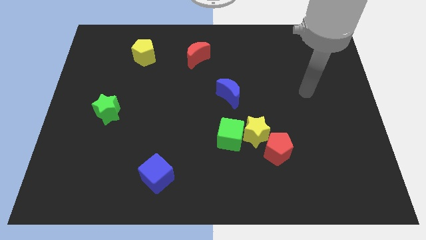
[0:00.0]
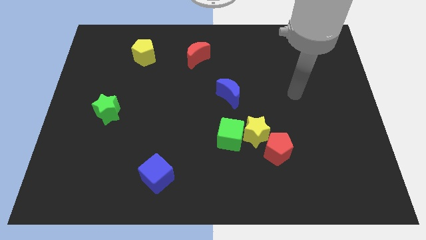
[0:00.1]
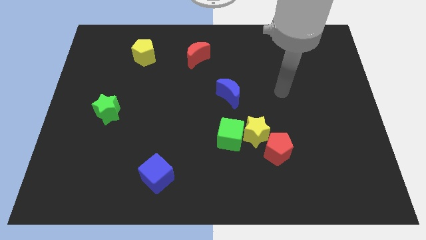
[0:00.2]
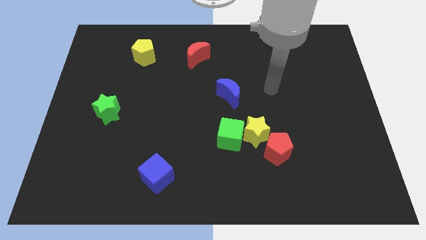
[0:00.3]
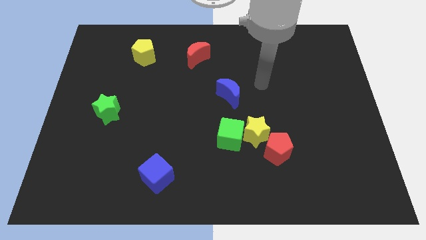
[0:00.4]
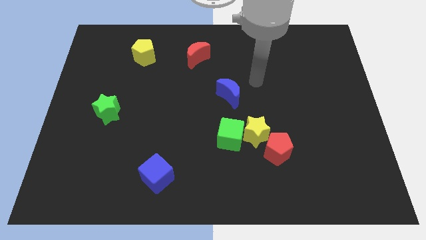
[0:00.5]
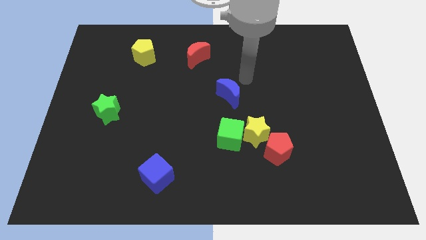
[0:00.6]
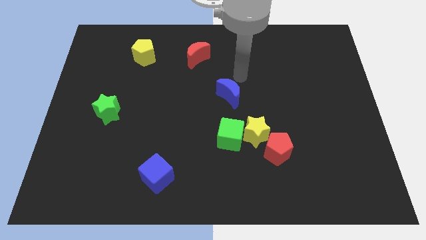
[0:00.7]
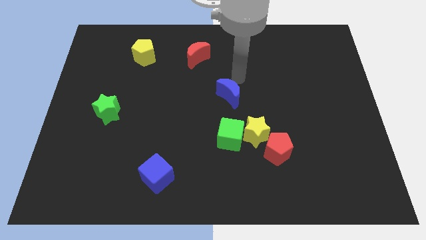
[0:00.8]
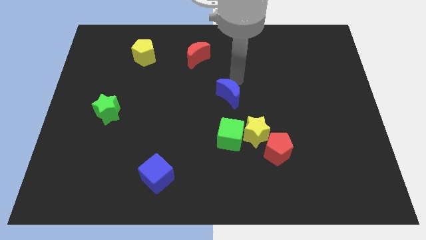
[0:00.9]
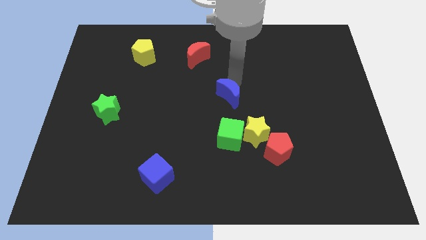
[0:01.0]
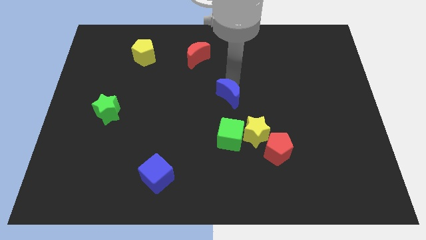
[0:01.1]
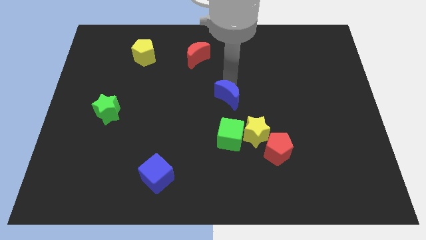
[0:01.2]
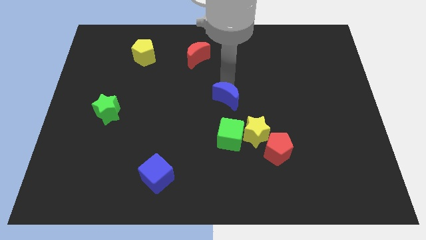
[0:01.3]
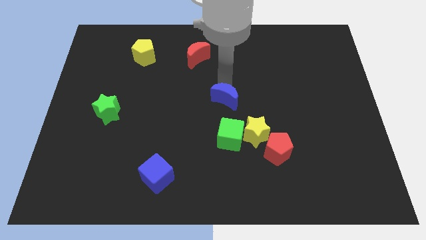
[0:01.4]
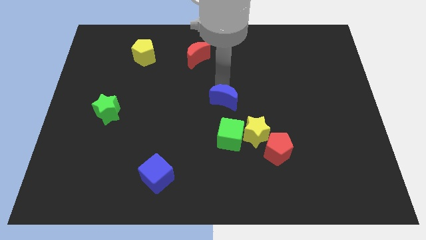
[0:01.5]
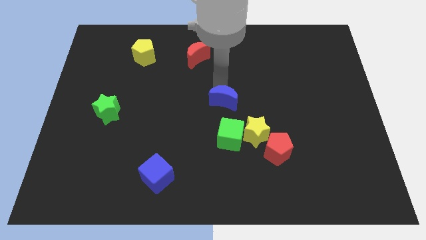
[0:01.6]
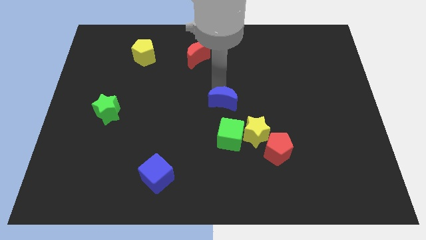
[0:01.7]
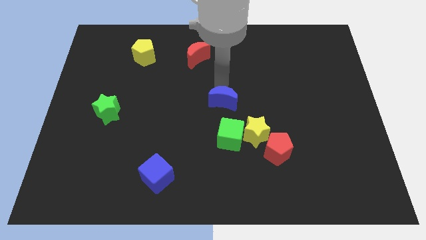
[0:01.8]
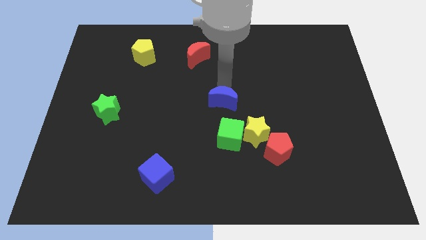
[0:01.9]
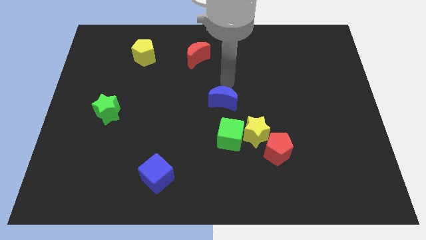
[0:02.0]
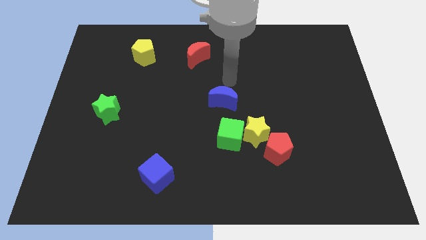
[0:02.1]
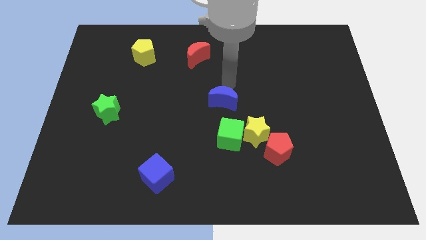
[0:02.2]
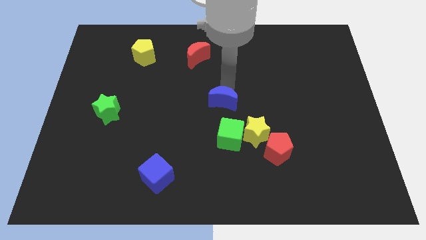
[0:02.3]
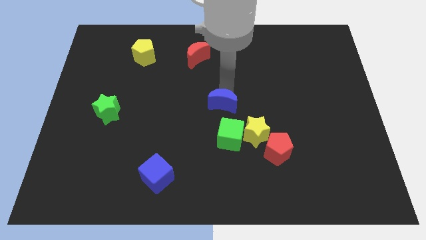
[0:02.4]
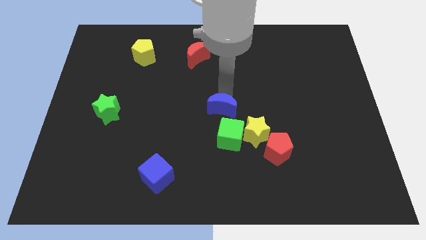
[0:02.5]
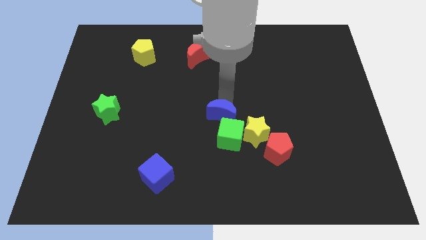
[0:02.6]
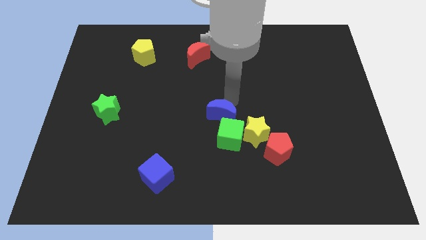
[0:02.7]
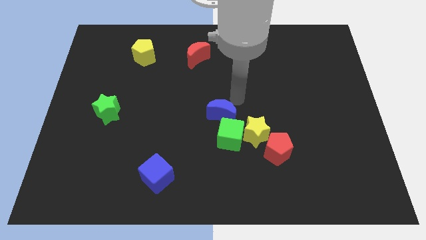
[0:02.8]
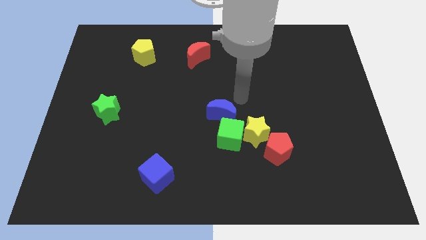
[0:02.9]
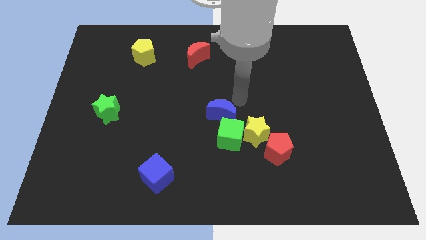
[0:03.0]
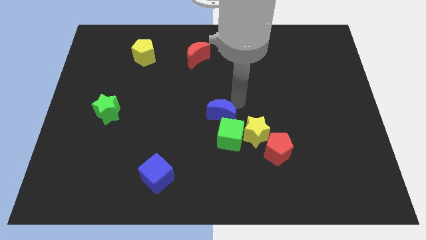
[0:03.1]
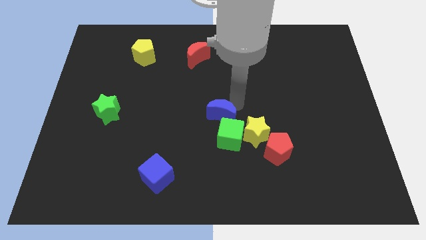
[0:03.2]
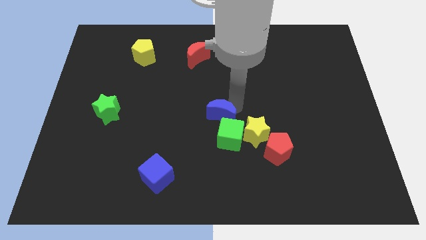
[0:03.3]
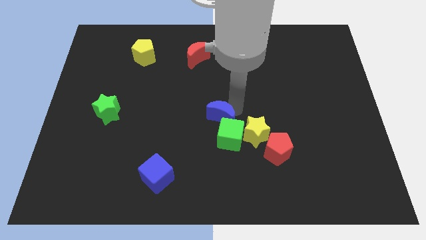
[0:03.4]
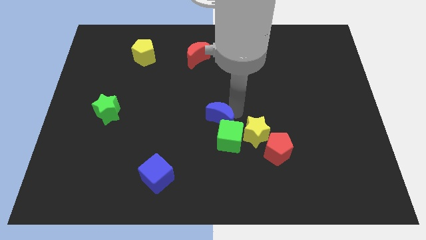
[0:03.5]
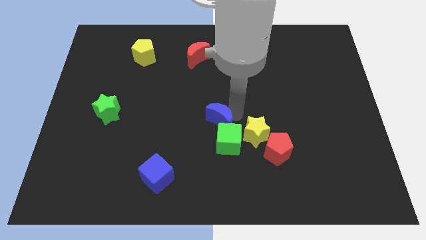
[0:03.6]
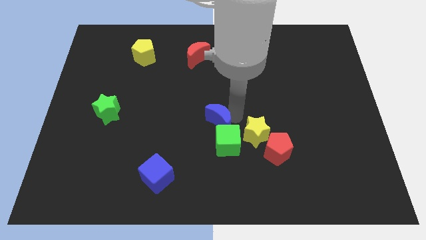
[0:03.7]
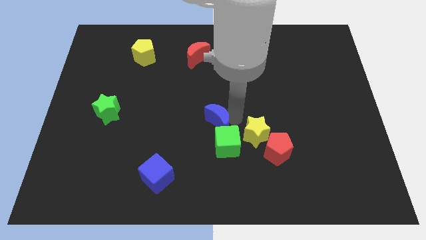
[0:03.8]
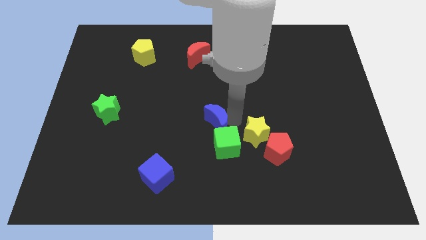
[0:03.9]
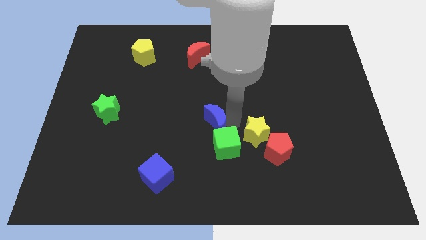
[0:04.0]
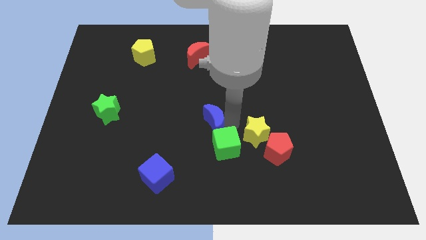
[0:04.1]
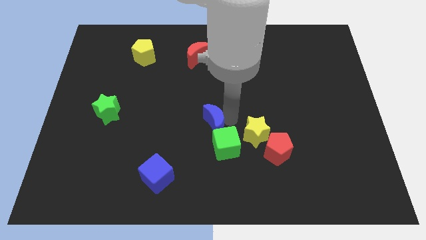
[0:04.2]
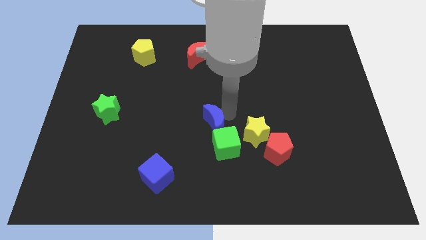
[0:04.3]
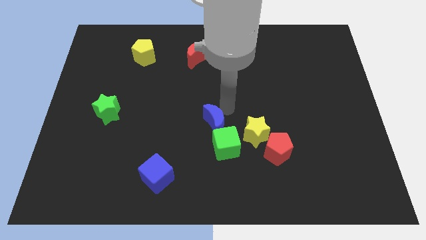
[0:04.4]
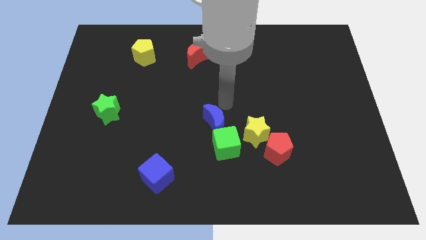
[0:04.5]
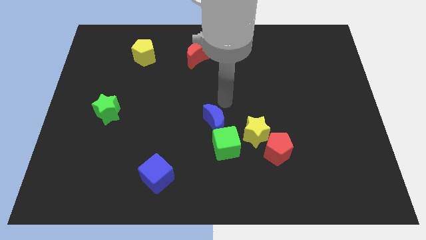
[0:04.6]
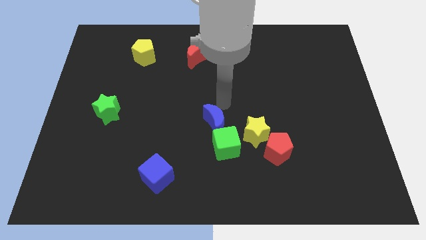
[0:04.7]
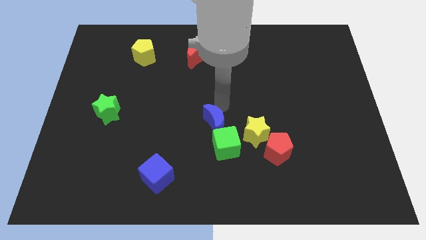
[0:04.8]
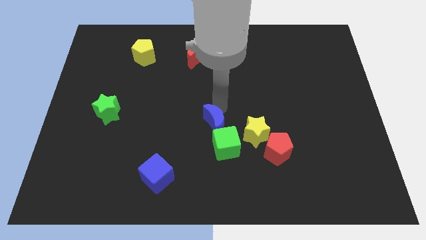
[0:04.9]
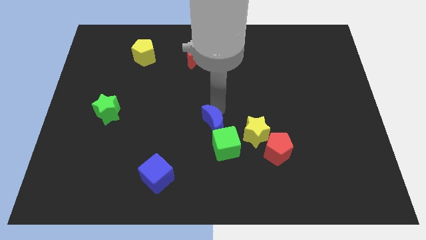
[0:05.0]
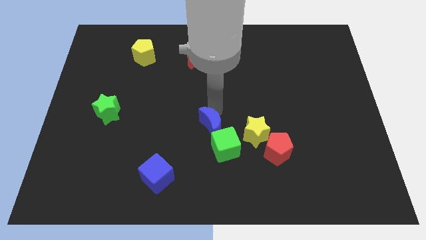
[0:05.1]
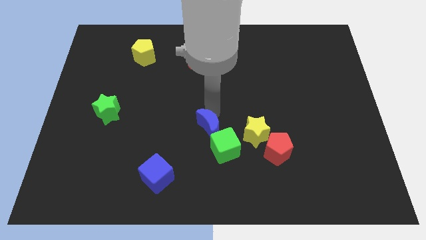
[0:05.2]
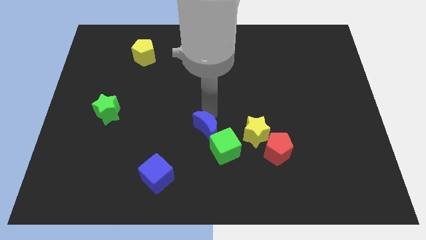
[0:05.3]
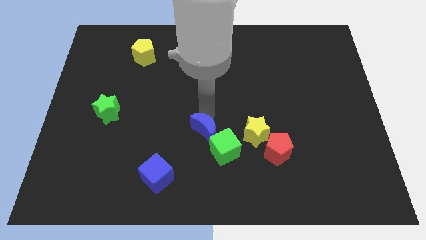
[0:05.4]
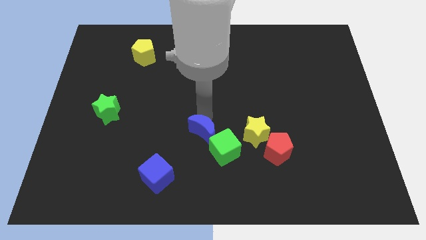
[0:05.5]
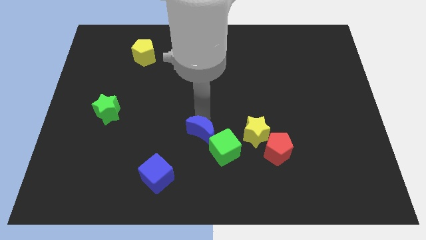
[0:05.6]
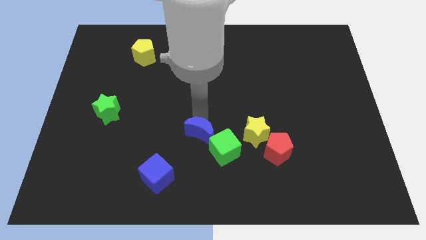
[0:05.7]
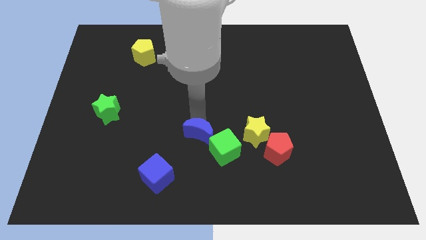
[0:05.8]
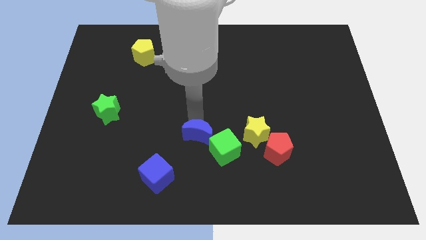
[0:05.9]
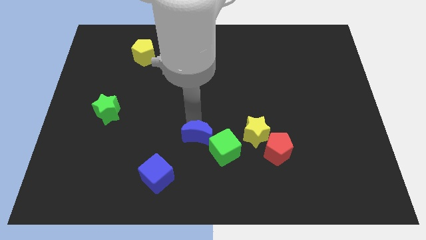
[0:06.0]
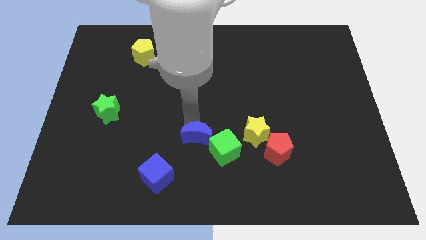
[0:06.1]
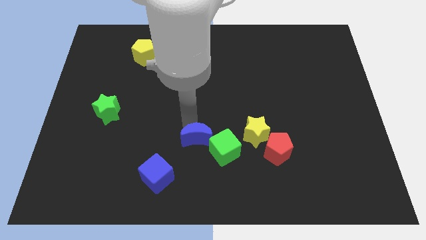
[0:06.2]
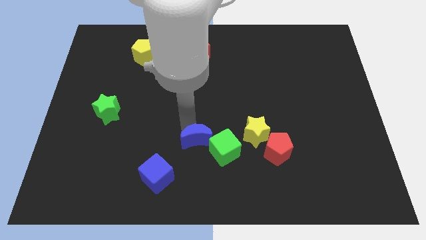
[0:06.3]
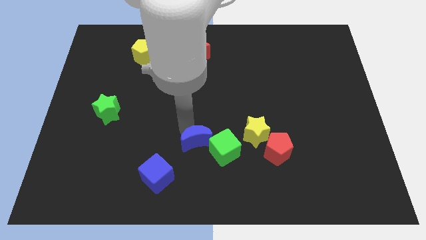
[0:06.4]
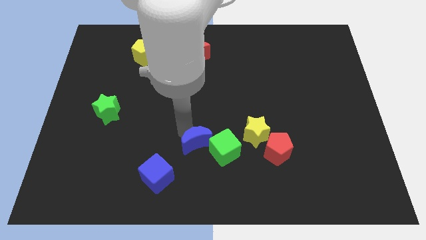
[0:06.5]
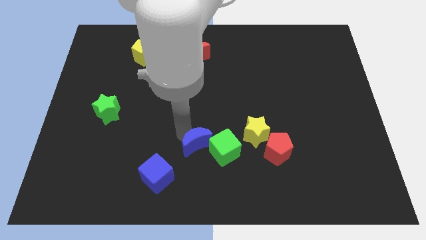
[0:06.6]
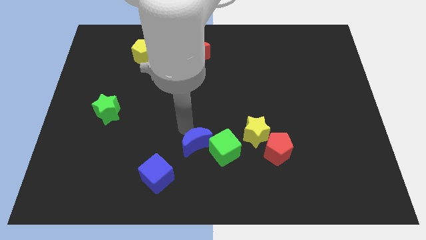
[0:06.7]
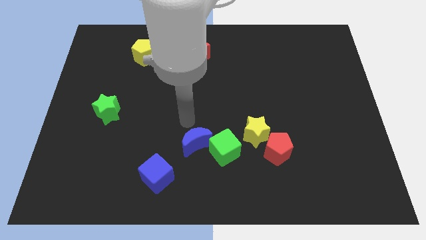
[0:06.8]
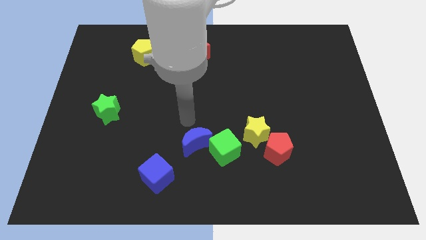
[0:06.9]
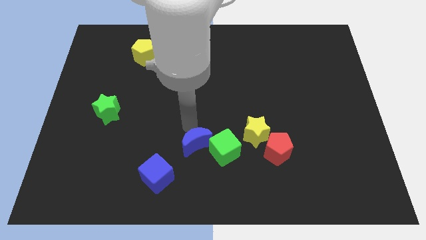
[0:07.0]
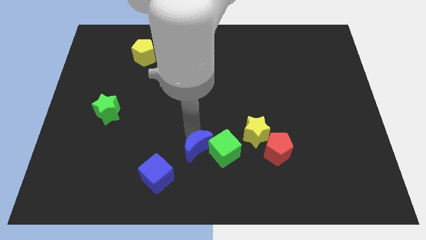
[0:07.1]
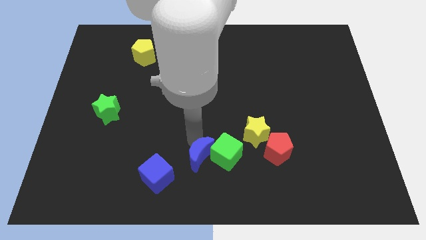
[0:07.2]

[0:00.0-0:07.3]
move the blue moon just right of the blue cube

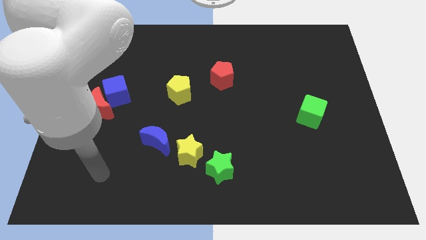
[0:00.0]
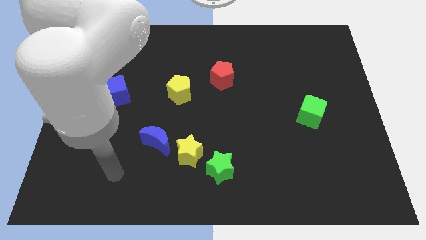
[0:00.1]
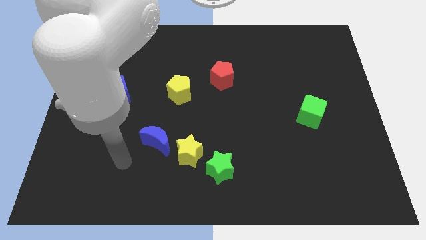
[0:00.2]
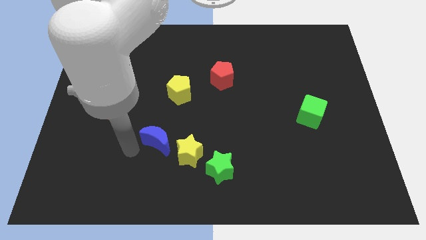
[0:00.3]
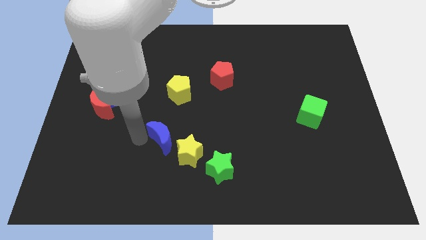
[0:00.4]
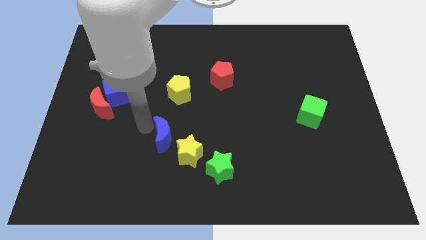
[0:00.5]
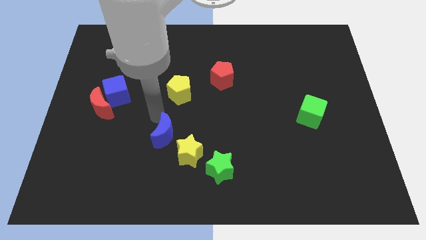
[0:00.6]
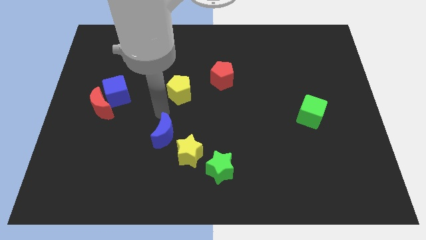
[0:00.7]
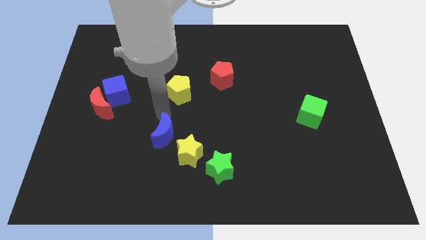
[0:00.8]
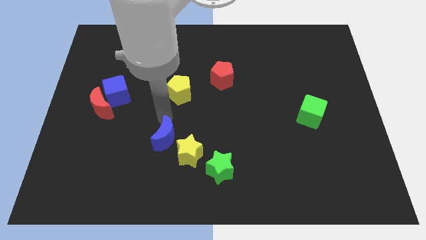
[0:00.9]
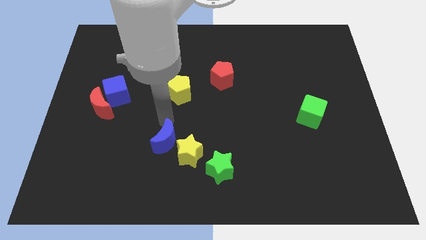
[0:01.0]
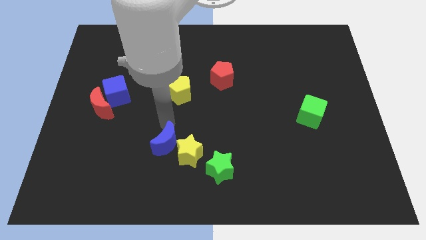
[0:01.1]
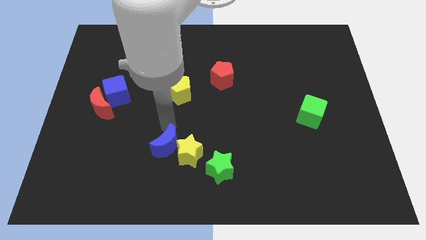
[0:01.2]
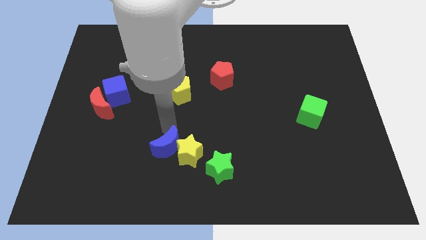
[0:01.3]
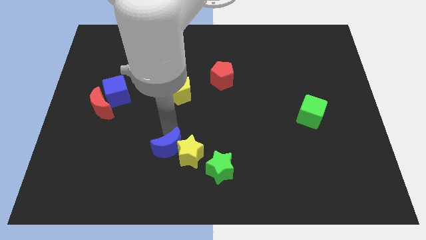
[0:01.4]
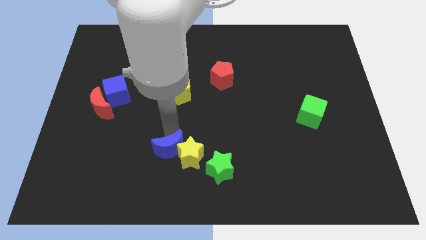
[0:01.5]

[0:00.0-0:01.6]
push the blue moon left of the green star
